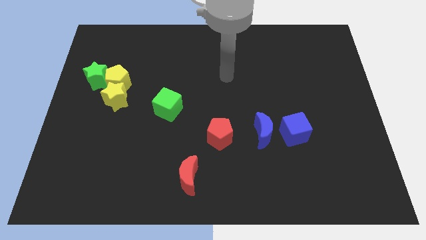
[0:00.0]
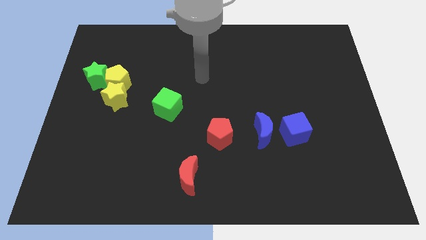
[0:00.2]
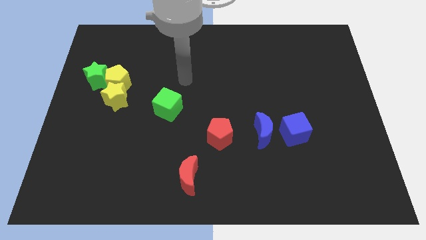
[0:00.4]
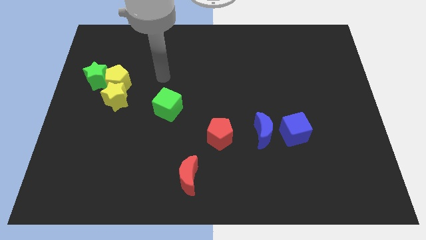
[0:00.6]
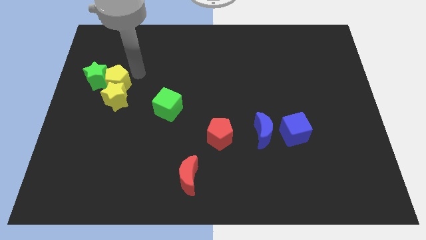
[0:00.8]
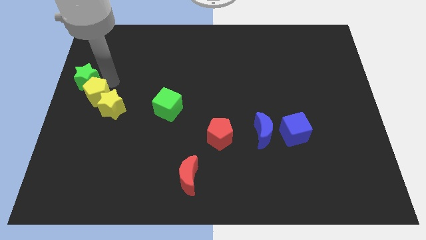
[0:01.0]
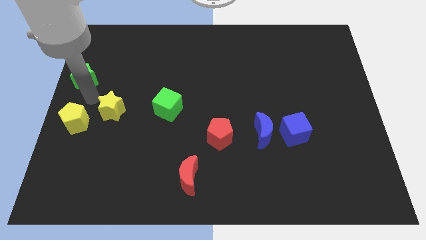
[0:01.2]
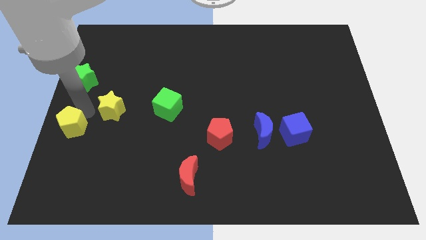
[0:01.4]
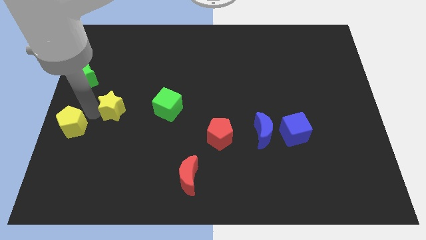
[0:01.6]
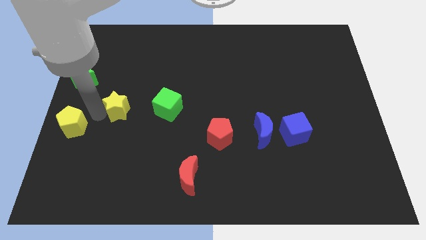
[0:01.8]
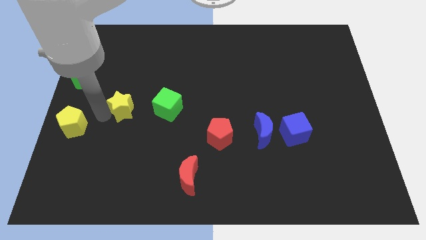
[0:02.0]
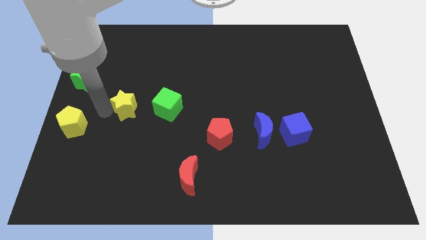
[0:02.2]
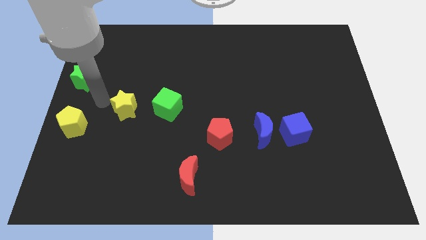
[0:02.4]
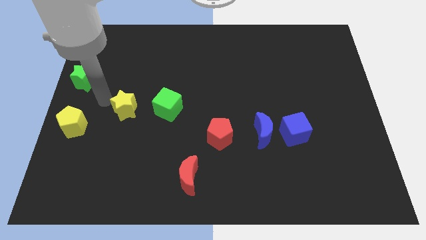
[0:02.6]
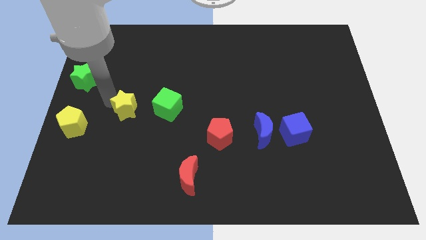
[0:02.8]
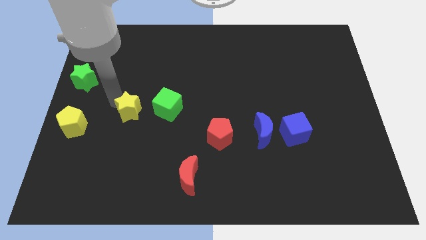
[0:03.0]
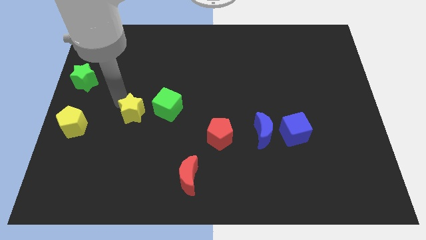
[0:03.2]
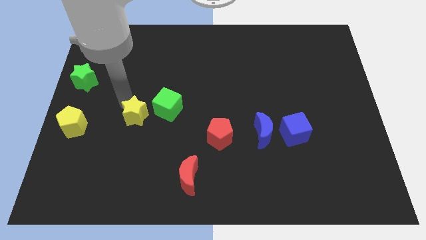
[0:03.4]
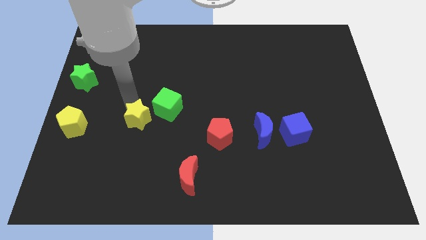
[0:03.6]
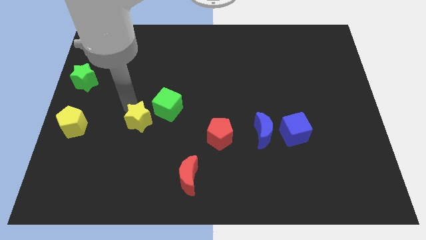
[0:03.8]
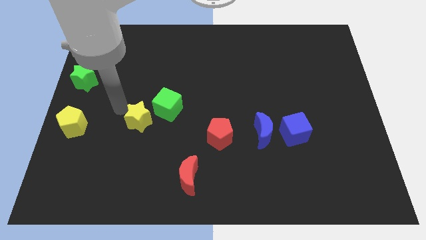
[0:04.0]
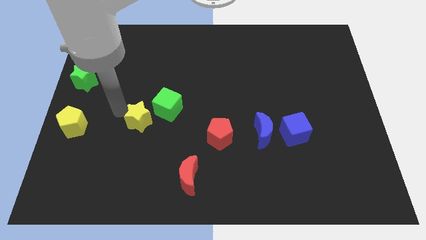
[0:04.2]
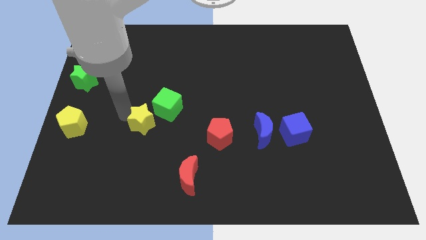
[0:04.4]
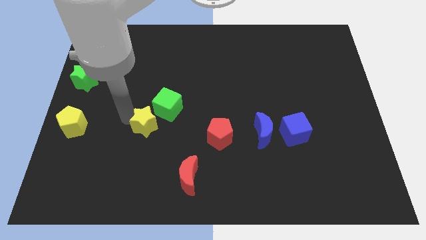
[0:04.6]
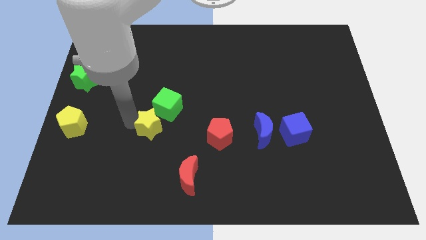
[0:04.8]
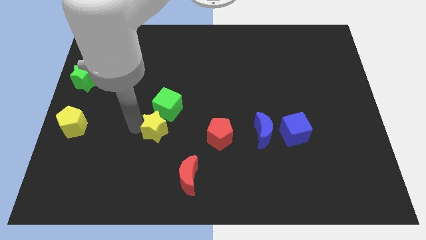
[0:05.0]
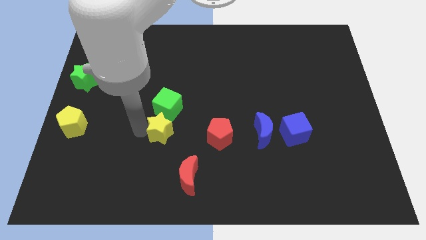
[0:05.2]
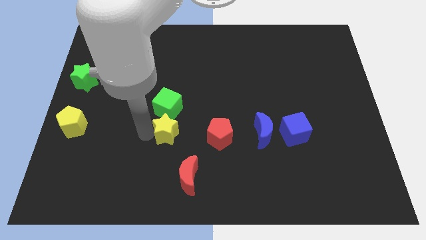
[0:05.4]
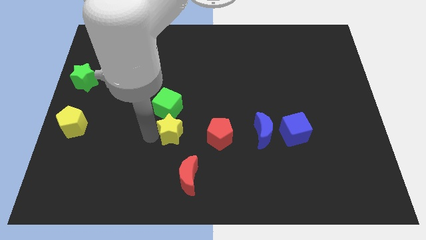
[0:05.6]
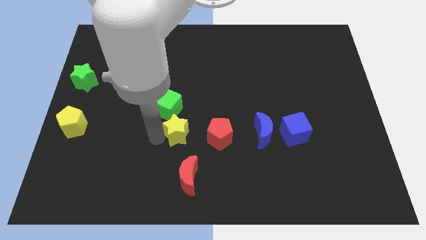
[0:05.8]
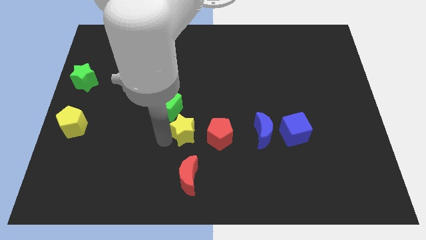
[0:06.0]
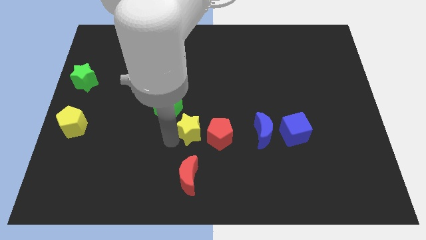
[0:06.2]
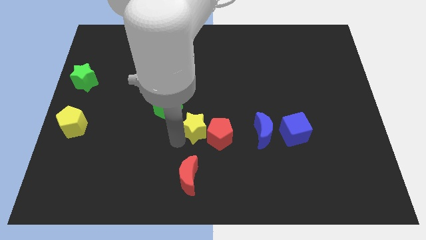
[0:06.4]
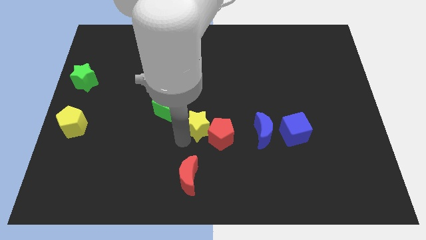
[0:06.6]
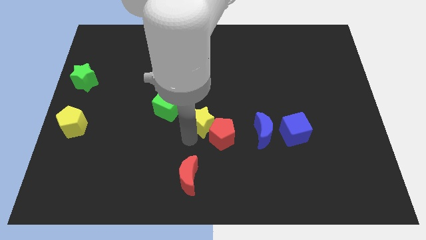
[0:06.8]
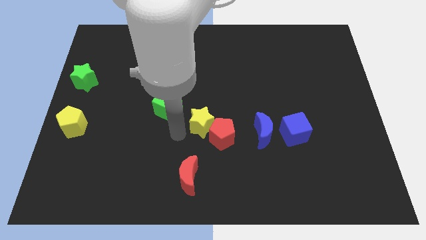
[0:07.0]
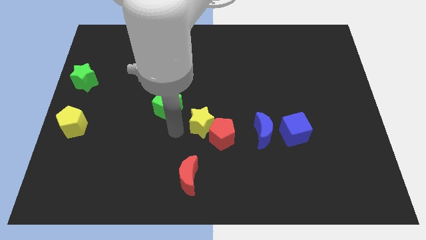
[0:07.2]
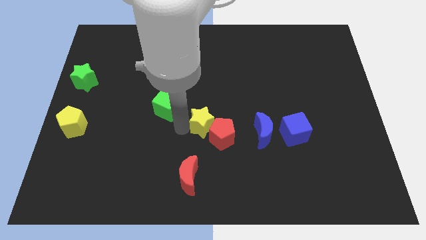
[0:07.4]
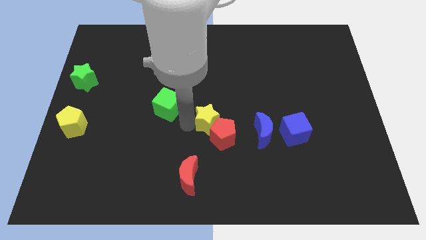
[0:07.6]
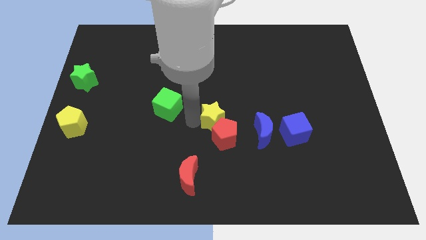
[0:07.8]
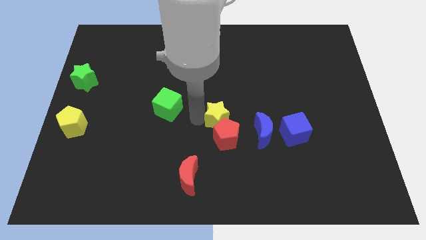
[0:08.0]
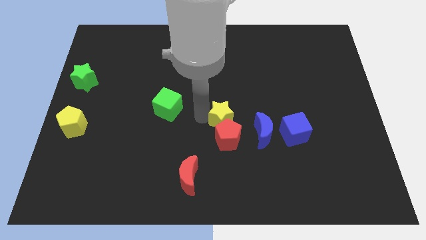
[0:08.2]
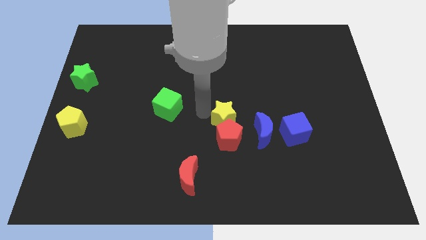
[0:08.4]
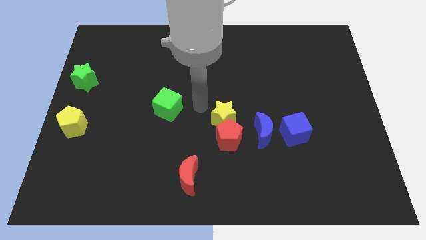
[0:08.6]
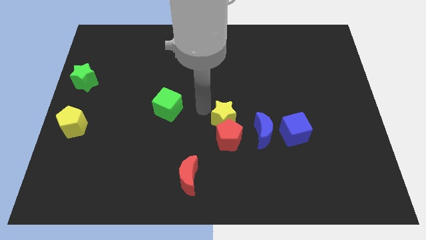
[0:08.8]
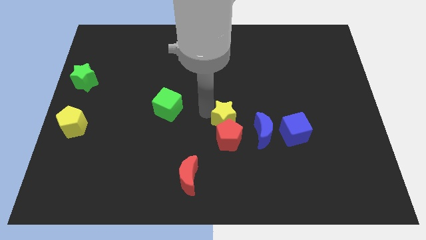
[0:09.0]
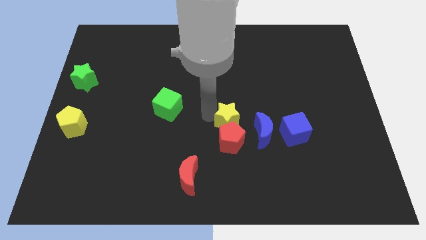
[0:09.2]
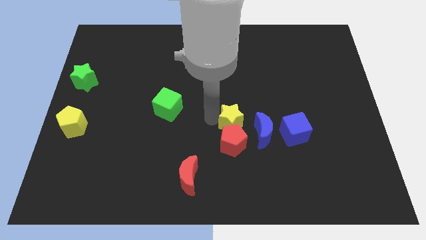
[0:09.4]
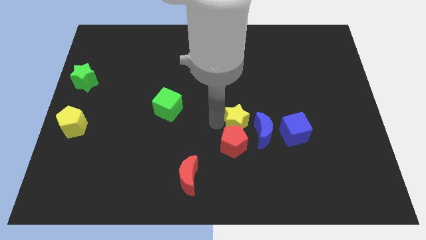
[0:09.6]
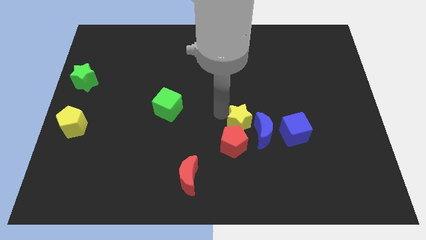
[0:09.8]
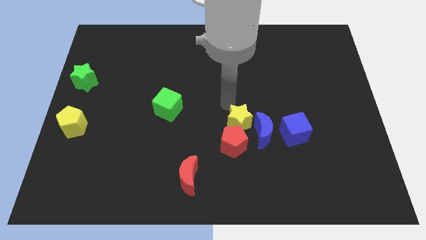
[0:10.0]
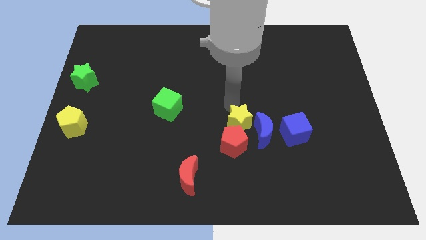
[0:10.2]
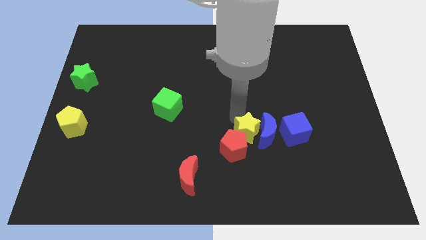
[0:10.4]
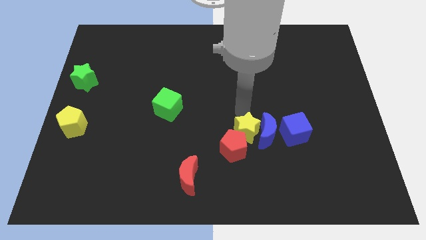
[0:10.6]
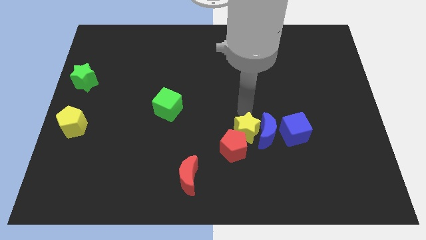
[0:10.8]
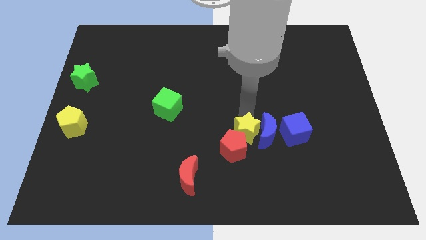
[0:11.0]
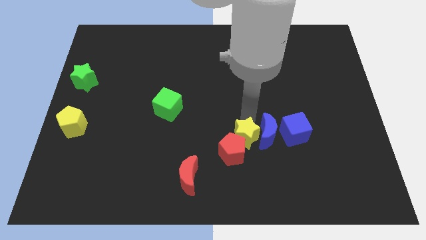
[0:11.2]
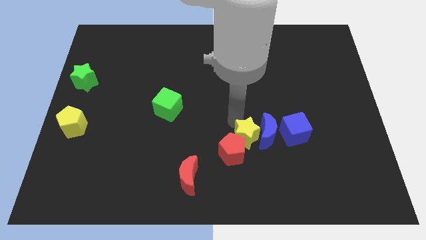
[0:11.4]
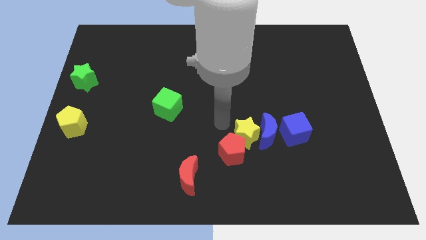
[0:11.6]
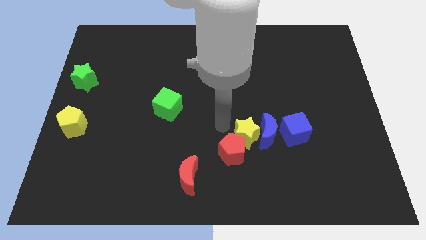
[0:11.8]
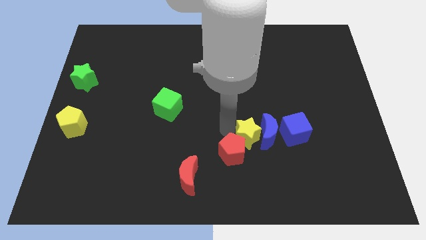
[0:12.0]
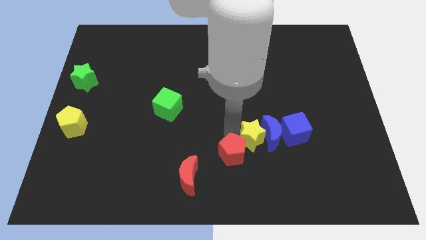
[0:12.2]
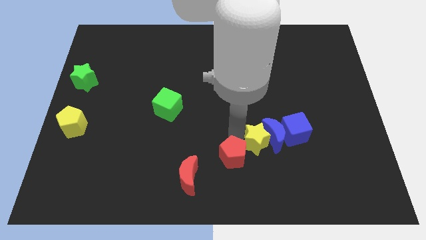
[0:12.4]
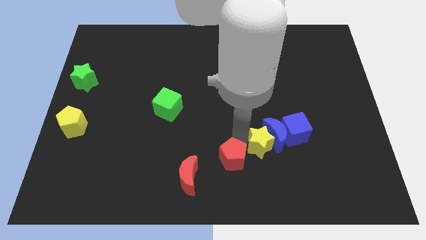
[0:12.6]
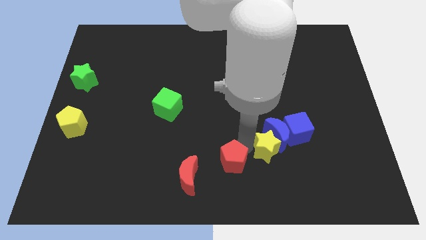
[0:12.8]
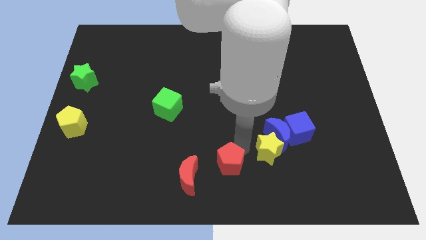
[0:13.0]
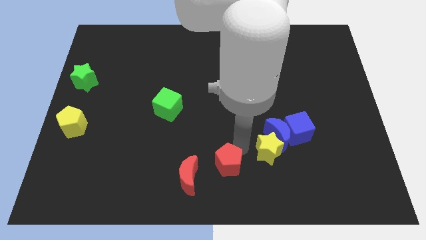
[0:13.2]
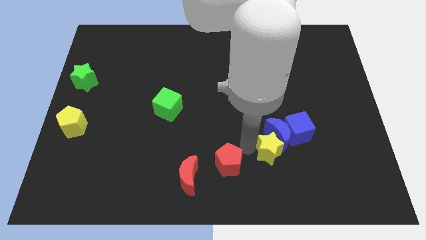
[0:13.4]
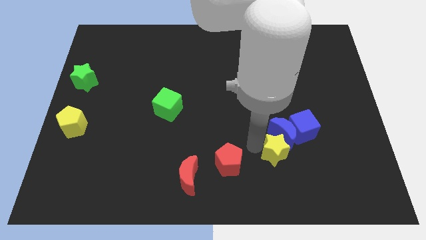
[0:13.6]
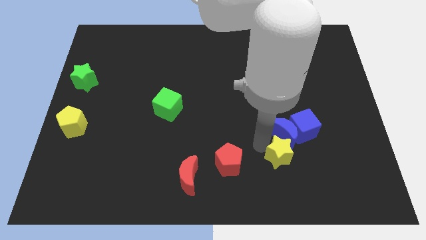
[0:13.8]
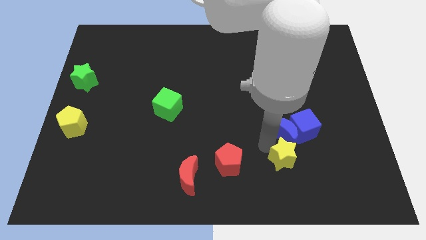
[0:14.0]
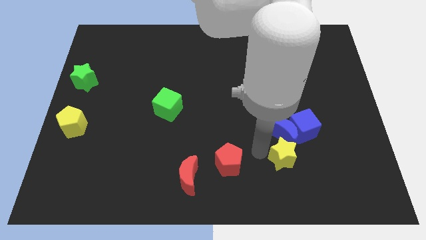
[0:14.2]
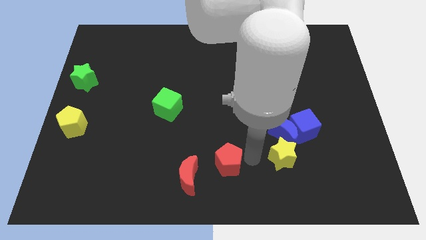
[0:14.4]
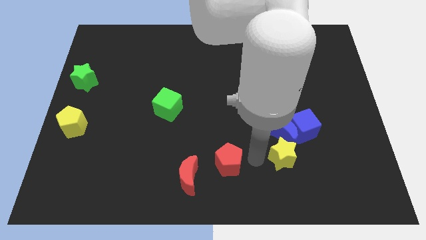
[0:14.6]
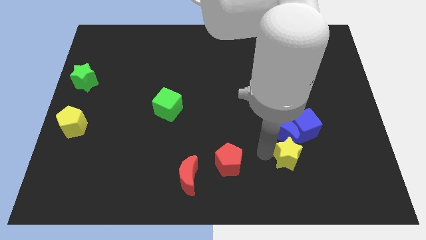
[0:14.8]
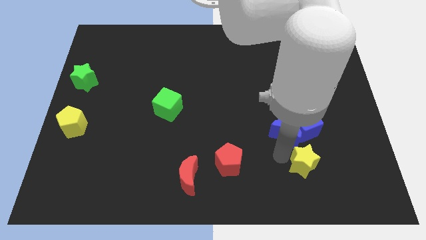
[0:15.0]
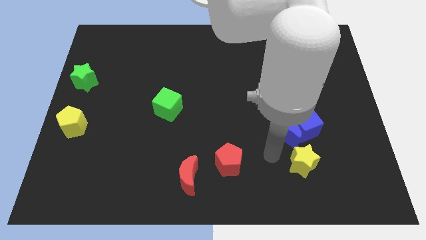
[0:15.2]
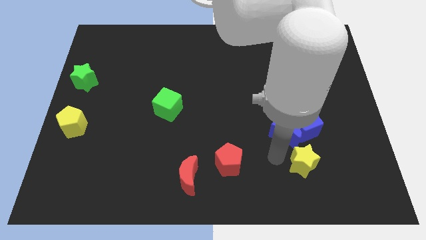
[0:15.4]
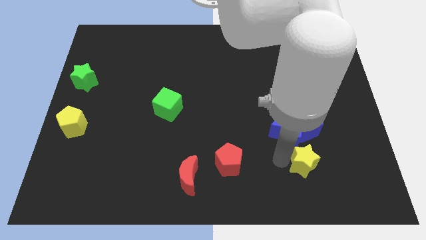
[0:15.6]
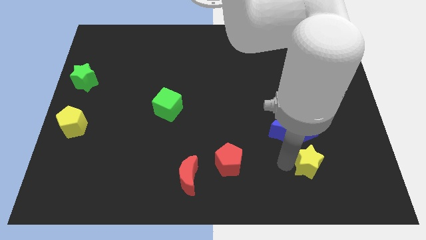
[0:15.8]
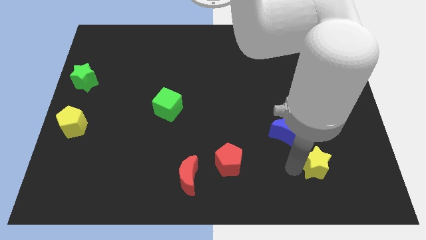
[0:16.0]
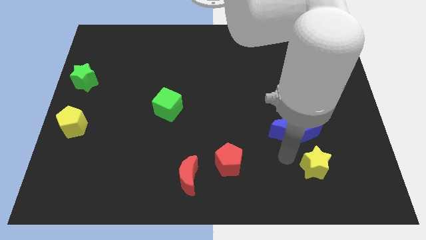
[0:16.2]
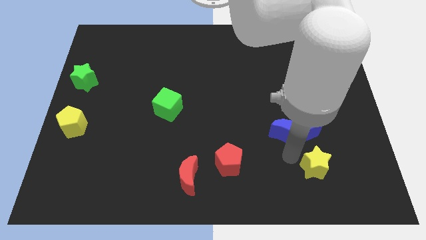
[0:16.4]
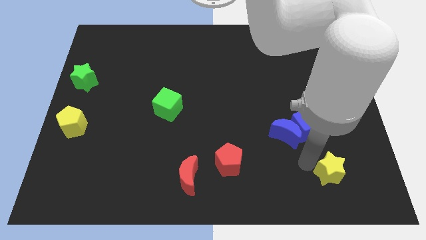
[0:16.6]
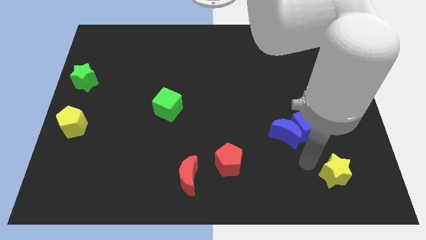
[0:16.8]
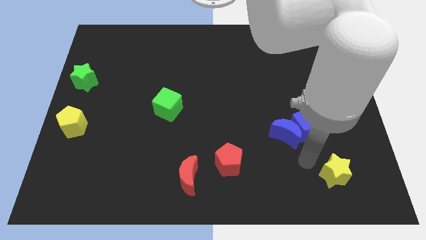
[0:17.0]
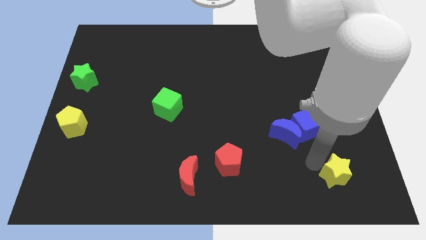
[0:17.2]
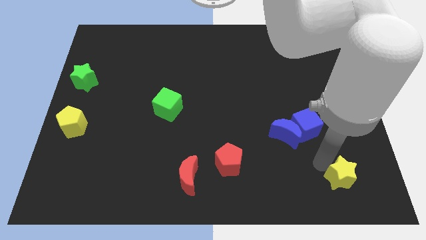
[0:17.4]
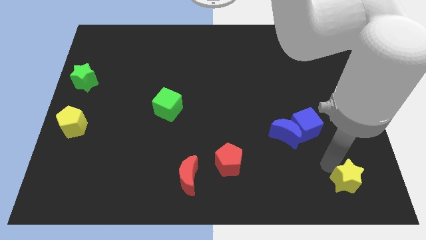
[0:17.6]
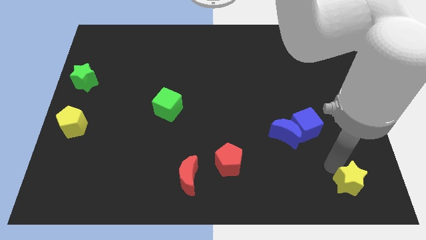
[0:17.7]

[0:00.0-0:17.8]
move the yellow star to the bottom right corner
